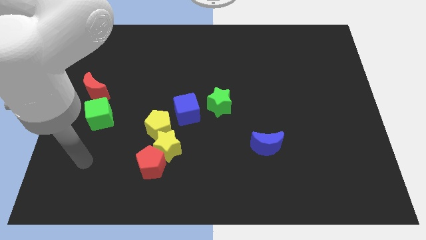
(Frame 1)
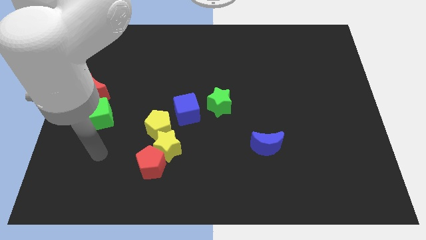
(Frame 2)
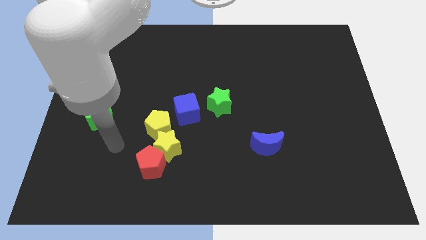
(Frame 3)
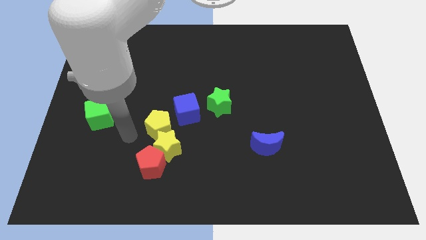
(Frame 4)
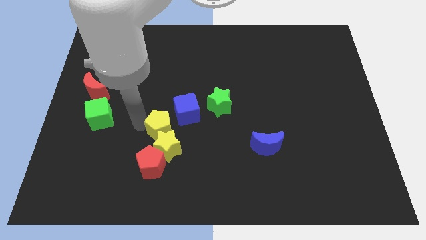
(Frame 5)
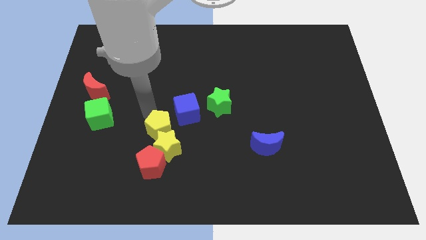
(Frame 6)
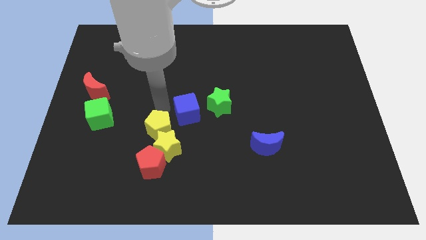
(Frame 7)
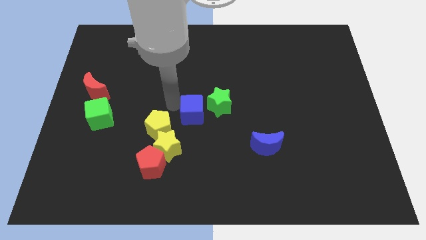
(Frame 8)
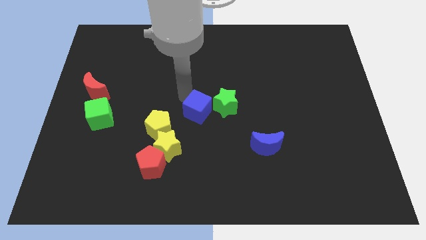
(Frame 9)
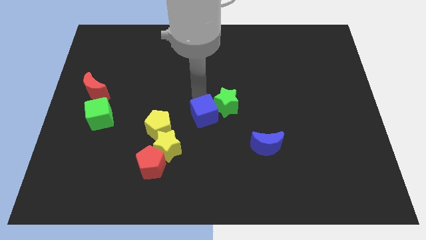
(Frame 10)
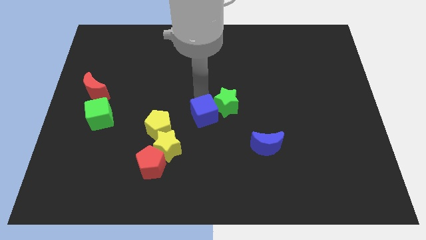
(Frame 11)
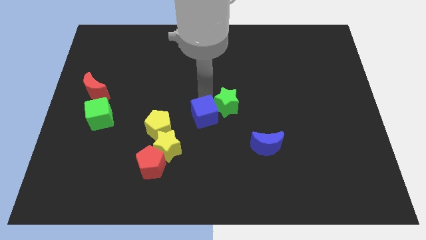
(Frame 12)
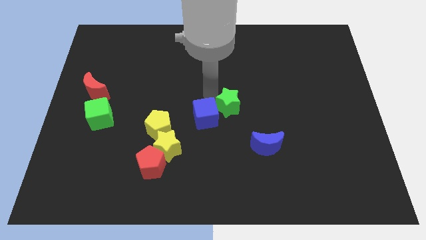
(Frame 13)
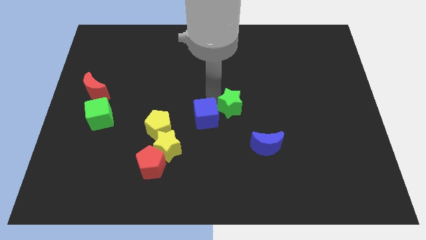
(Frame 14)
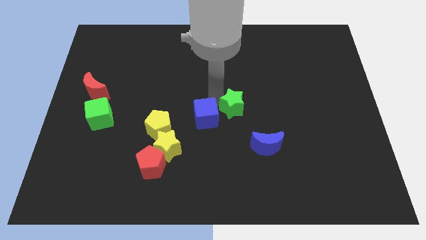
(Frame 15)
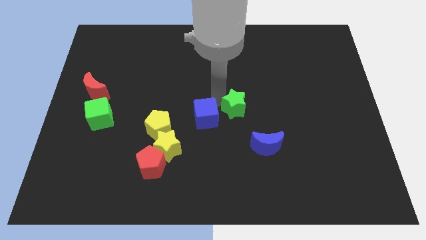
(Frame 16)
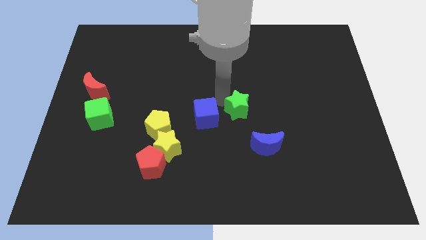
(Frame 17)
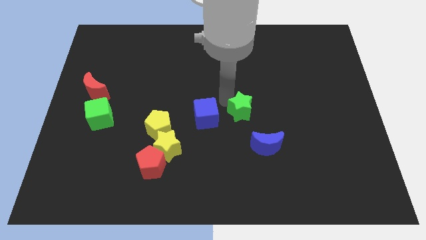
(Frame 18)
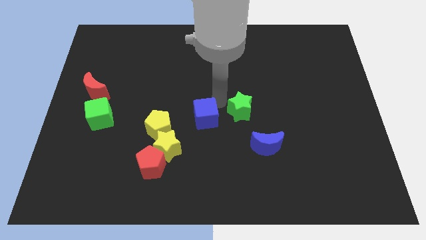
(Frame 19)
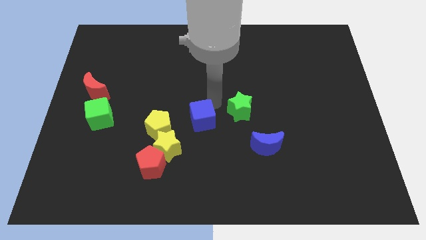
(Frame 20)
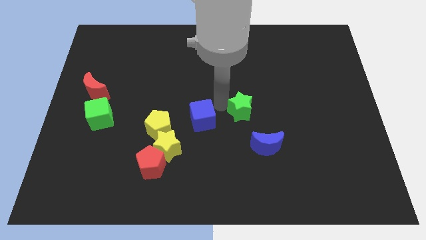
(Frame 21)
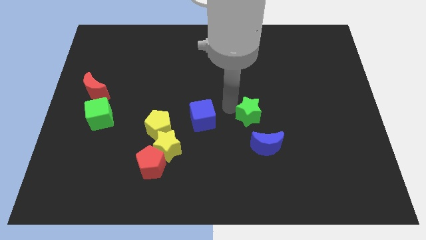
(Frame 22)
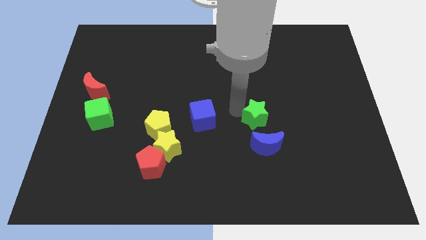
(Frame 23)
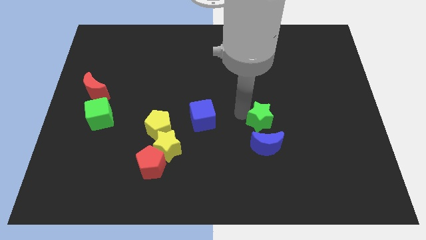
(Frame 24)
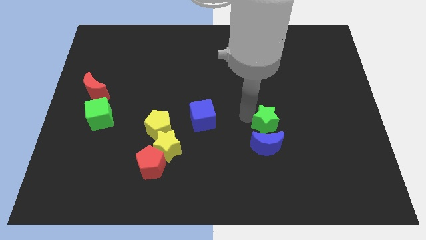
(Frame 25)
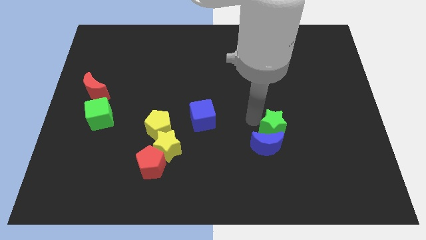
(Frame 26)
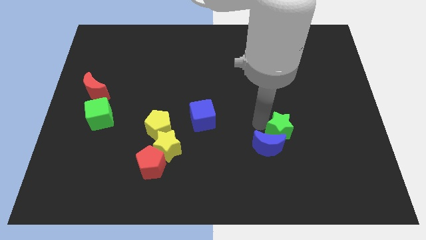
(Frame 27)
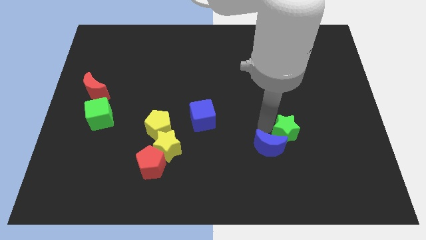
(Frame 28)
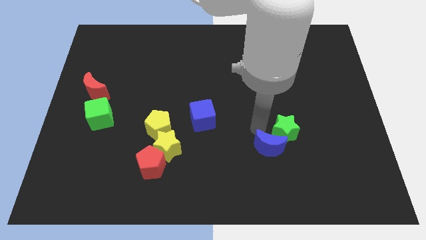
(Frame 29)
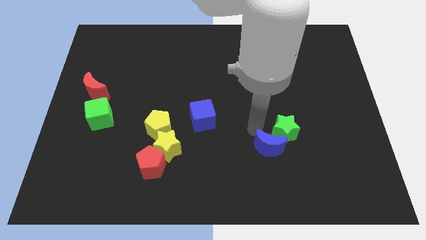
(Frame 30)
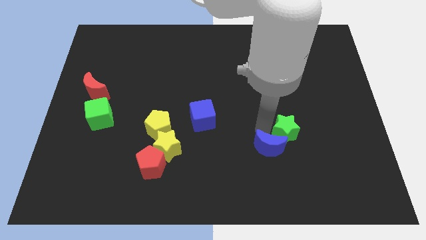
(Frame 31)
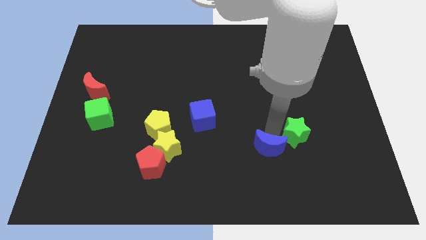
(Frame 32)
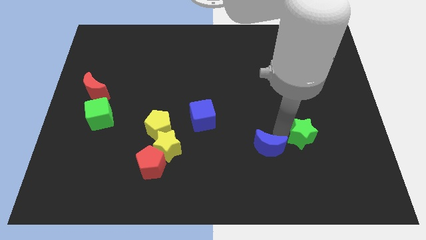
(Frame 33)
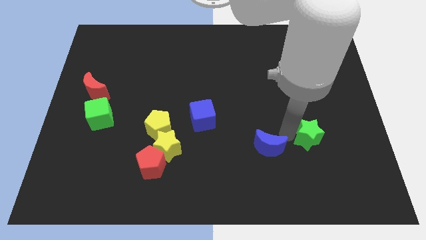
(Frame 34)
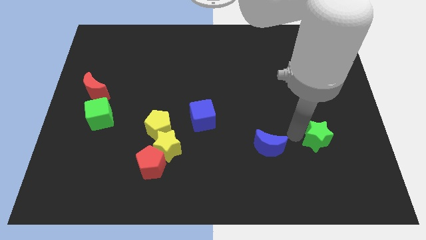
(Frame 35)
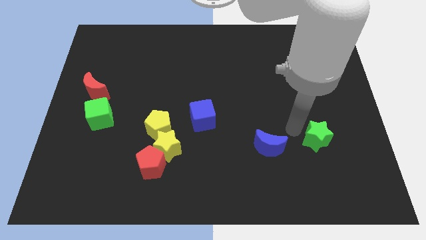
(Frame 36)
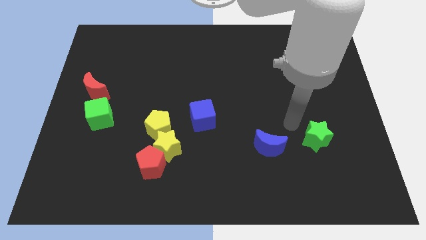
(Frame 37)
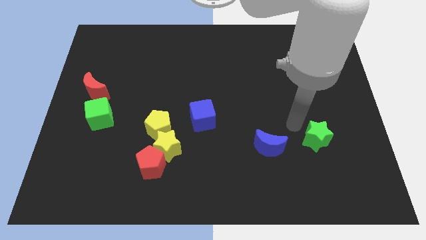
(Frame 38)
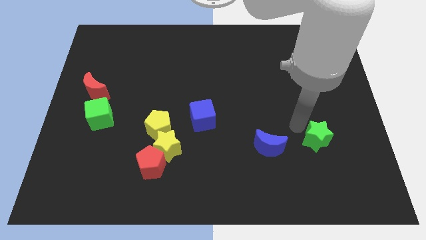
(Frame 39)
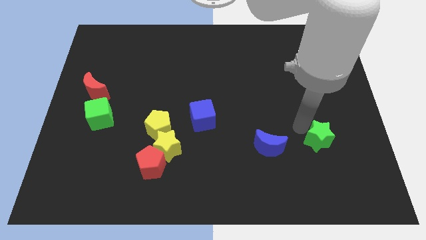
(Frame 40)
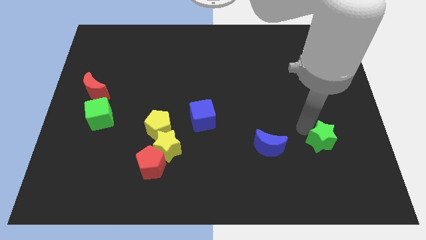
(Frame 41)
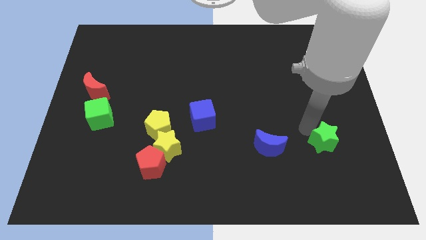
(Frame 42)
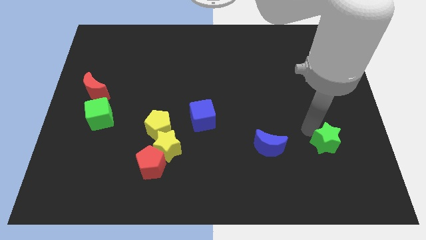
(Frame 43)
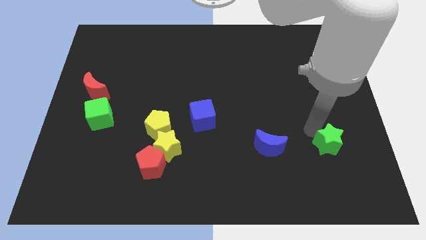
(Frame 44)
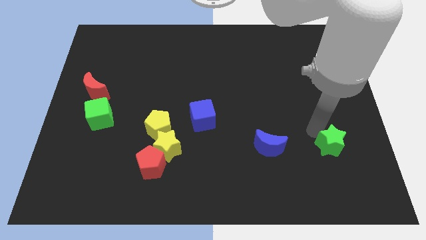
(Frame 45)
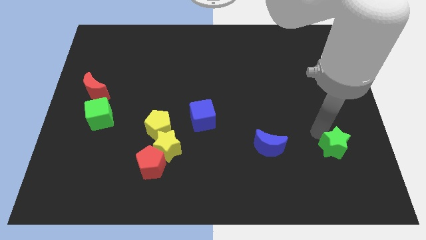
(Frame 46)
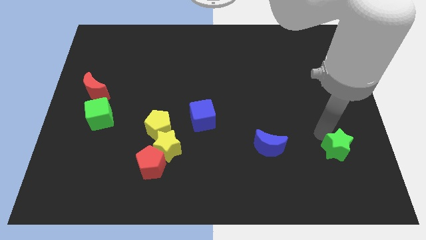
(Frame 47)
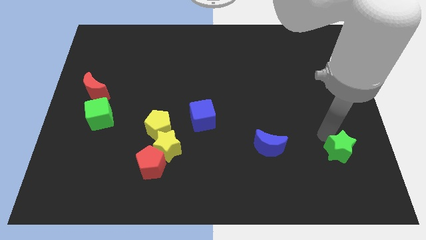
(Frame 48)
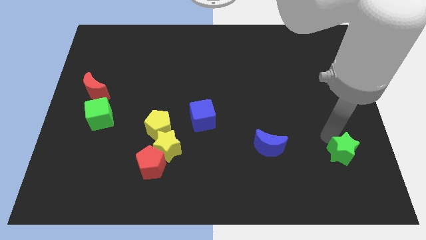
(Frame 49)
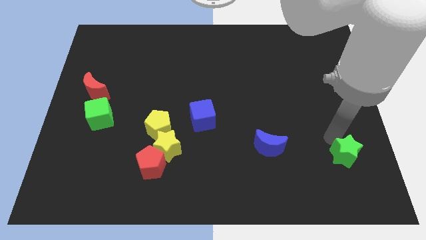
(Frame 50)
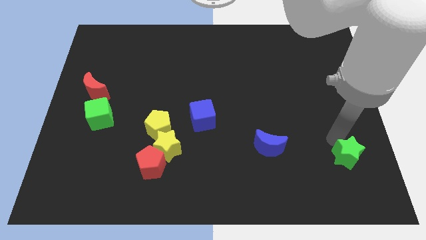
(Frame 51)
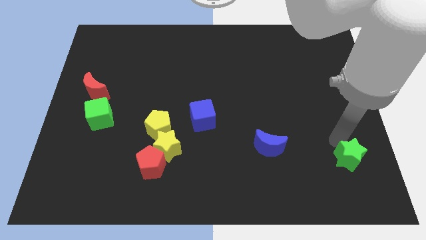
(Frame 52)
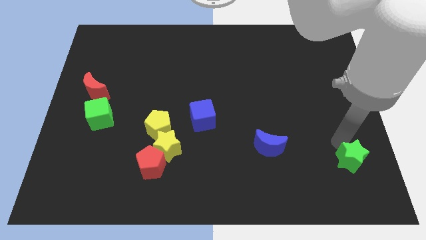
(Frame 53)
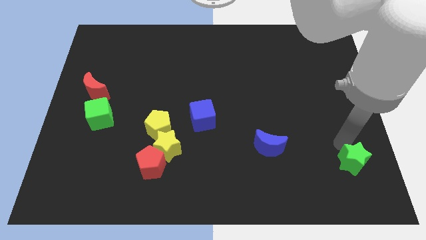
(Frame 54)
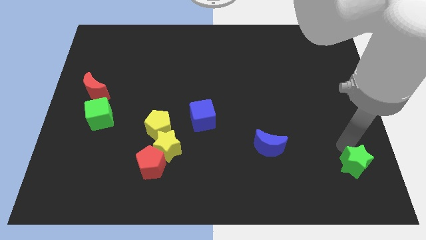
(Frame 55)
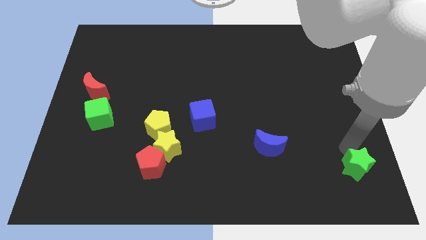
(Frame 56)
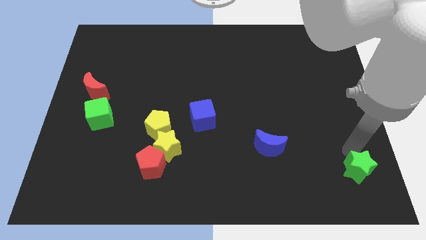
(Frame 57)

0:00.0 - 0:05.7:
put the green star to the bottom right corner

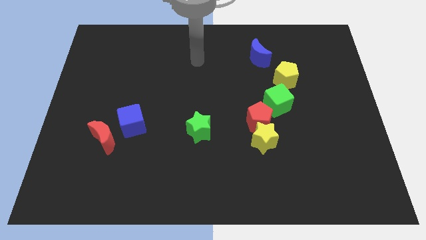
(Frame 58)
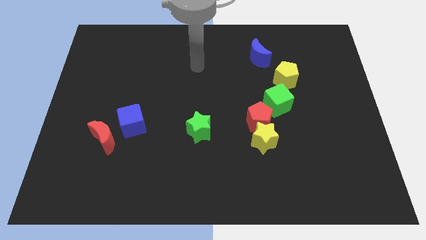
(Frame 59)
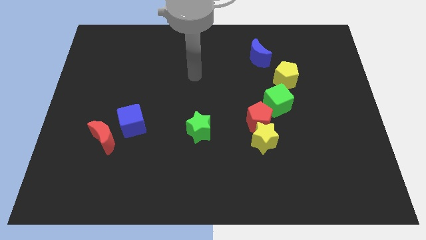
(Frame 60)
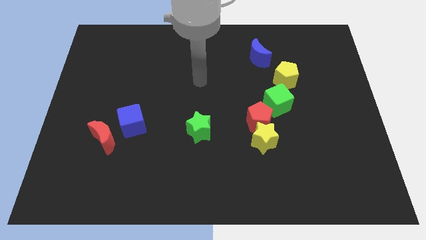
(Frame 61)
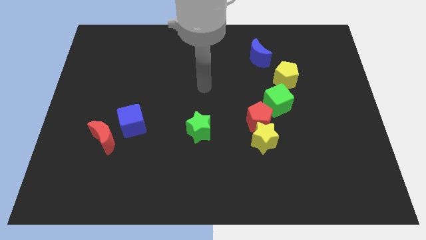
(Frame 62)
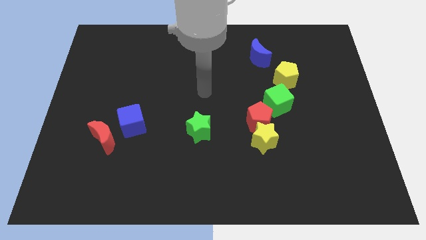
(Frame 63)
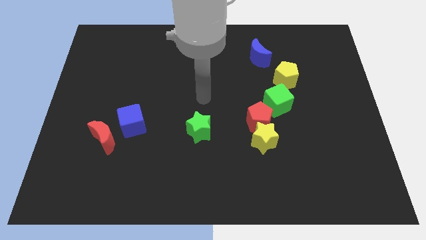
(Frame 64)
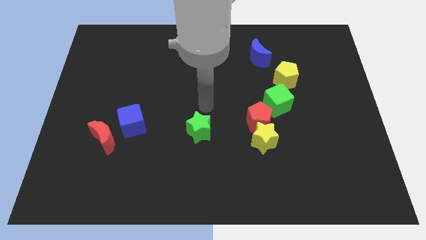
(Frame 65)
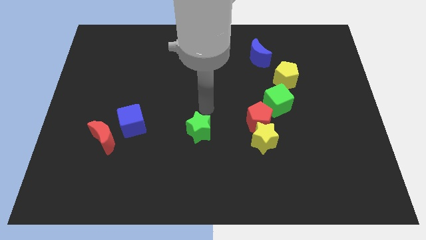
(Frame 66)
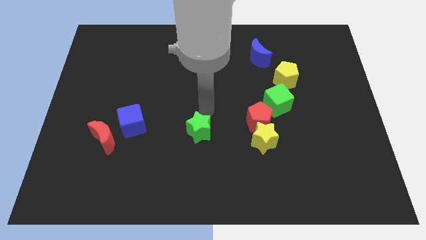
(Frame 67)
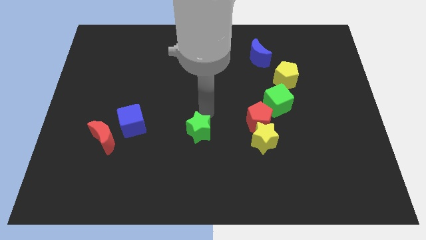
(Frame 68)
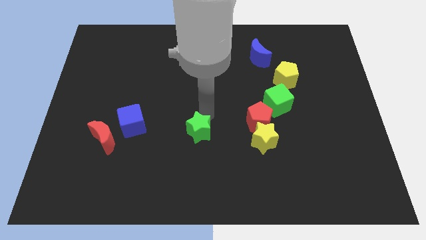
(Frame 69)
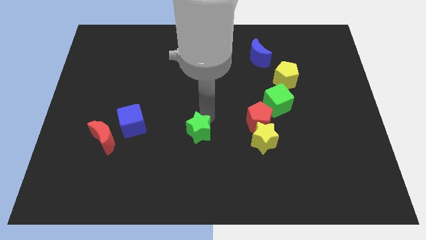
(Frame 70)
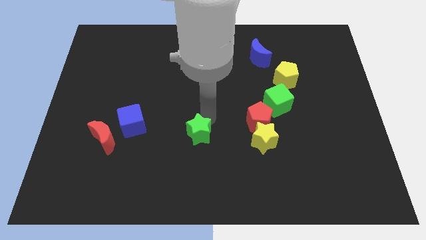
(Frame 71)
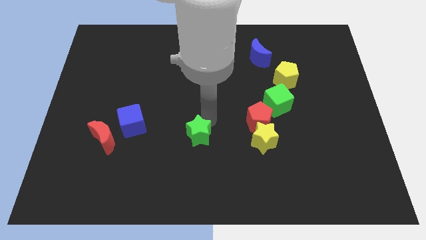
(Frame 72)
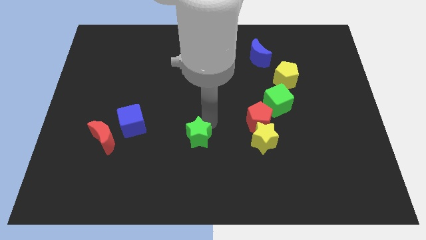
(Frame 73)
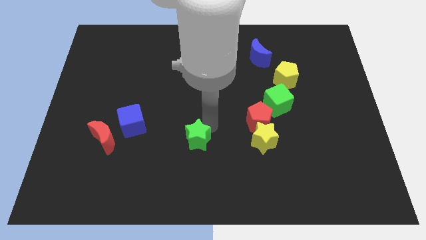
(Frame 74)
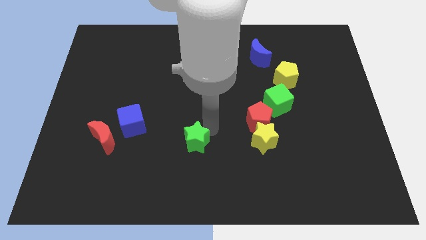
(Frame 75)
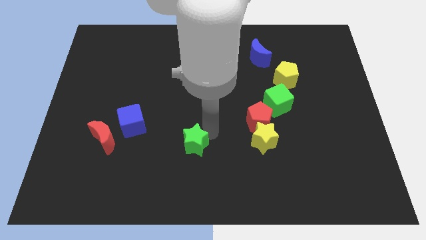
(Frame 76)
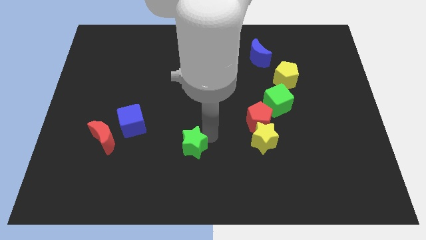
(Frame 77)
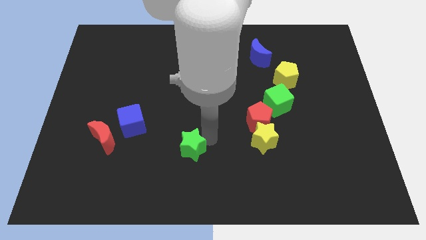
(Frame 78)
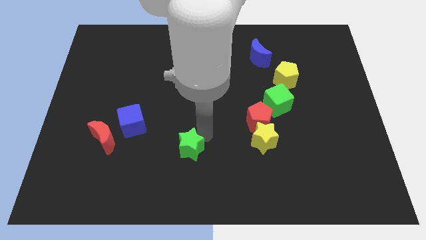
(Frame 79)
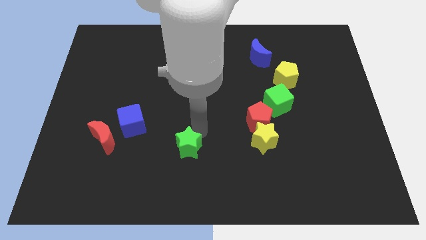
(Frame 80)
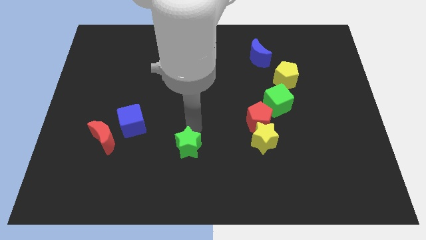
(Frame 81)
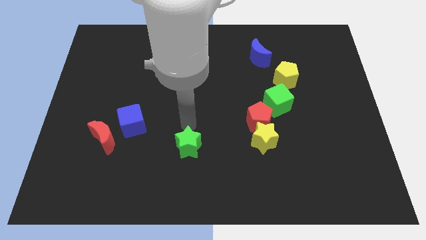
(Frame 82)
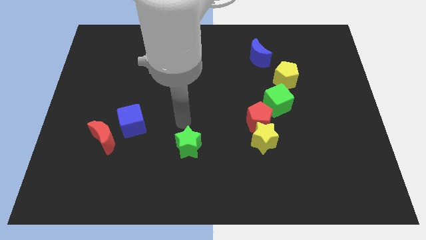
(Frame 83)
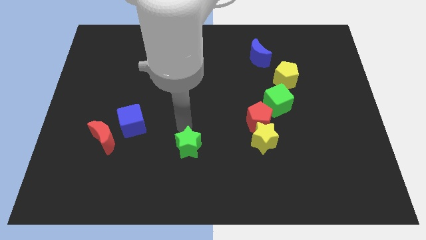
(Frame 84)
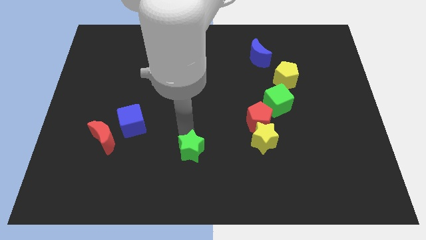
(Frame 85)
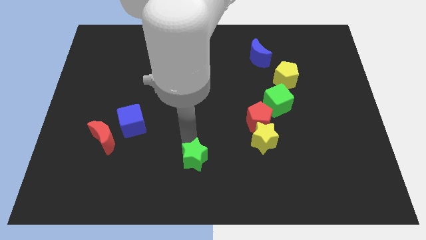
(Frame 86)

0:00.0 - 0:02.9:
put the green star to the bottom
